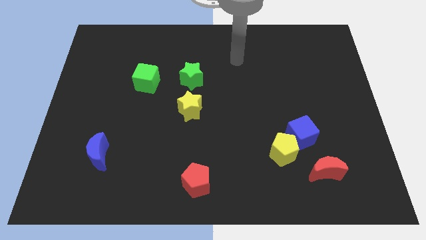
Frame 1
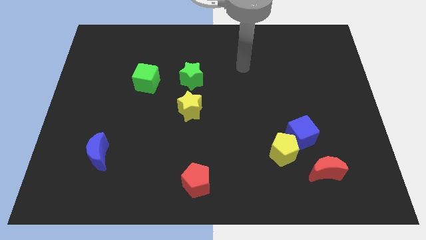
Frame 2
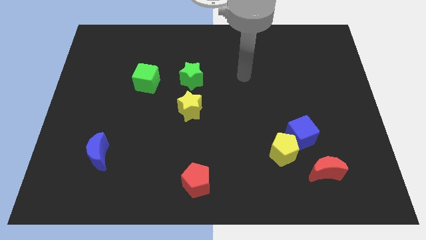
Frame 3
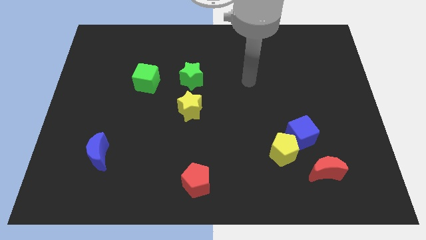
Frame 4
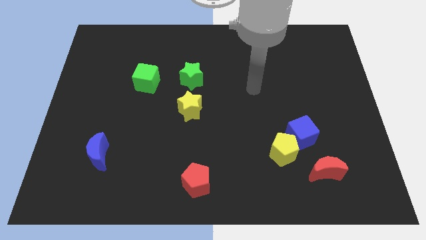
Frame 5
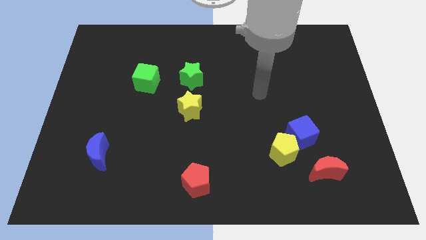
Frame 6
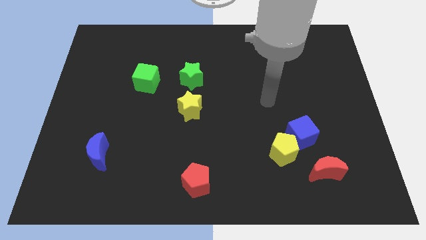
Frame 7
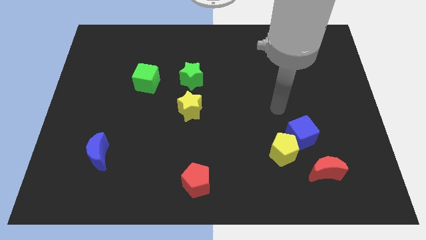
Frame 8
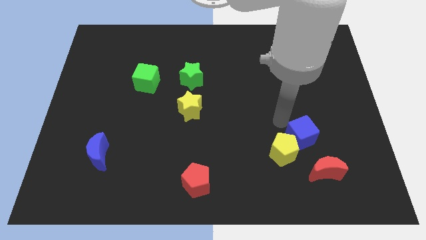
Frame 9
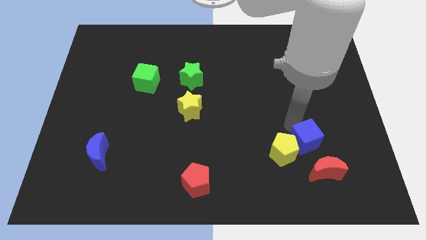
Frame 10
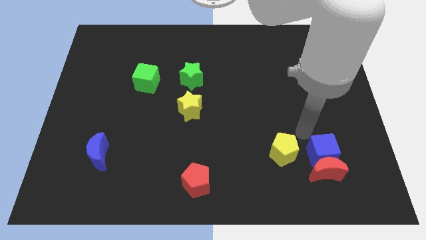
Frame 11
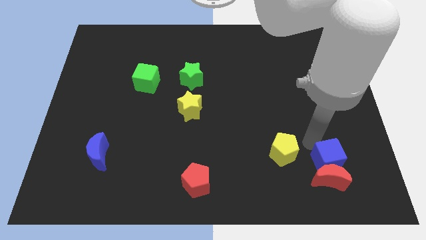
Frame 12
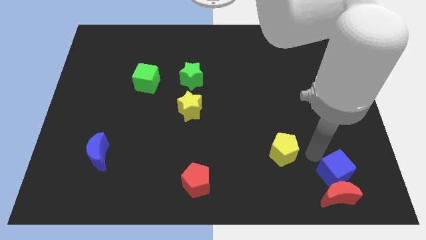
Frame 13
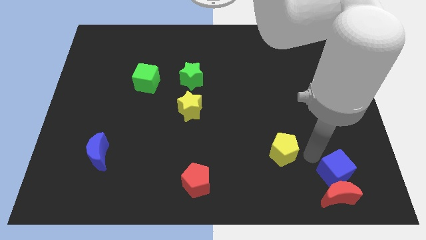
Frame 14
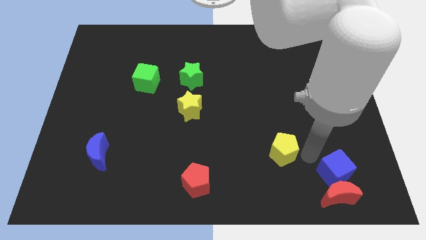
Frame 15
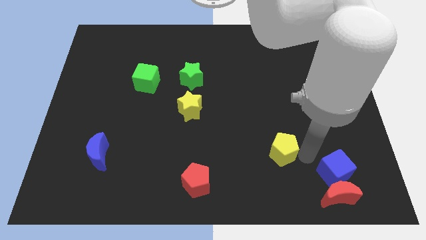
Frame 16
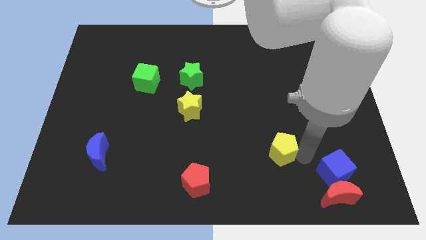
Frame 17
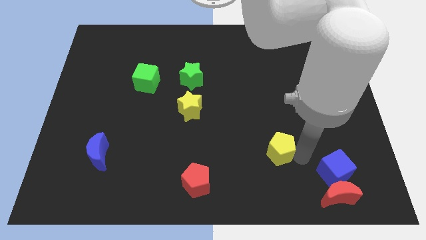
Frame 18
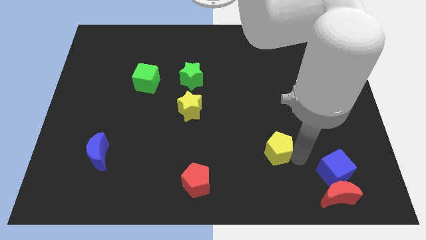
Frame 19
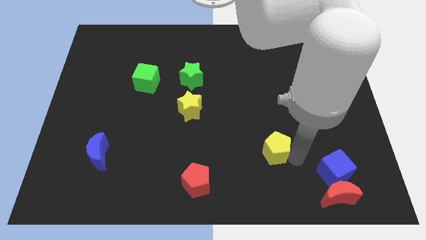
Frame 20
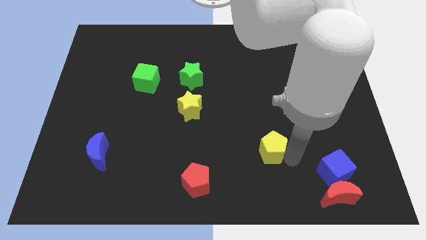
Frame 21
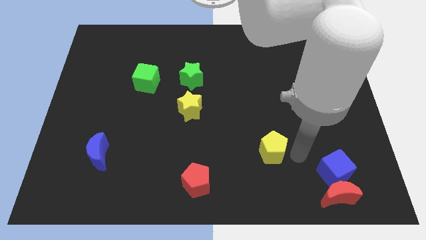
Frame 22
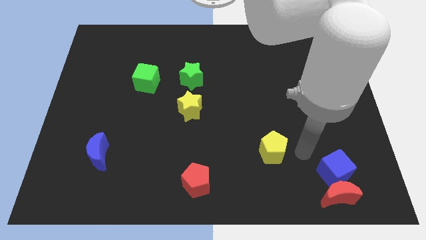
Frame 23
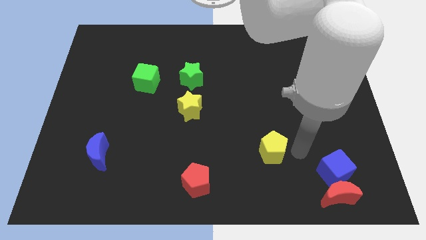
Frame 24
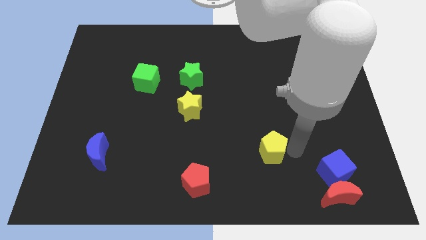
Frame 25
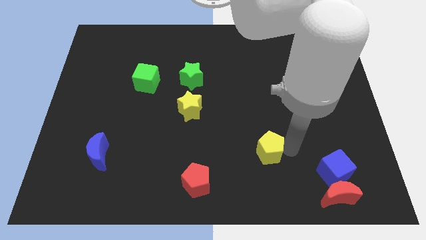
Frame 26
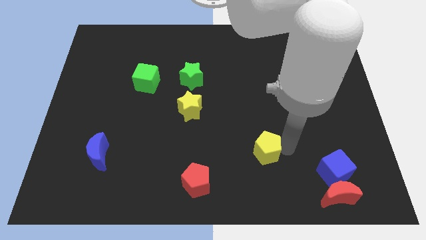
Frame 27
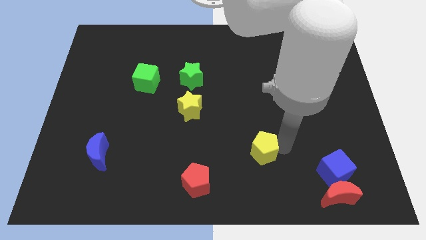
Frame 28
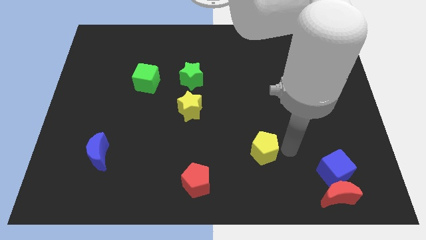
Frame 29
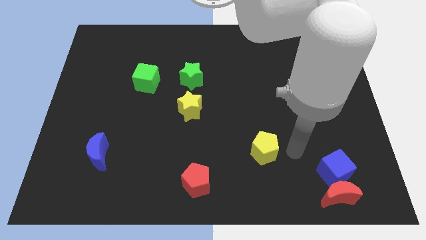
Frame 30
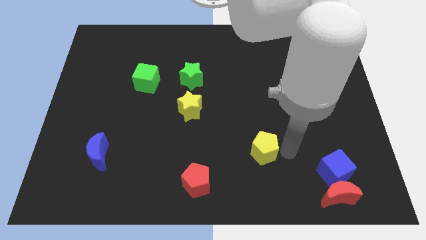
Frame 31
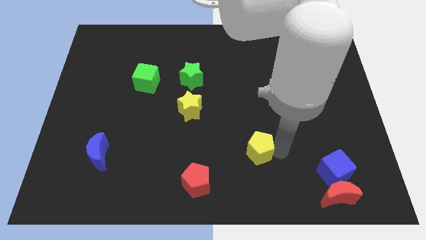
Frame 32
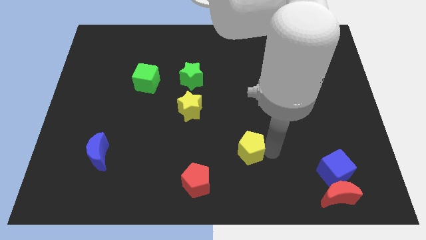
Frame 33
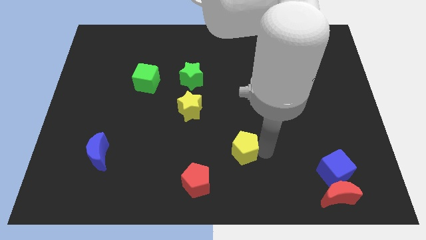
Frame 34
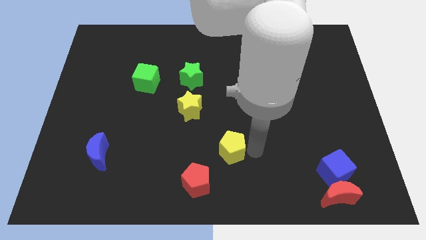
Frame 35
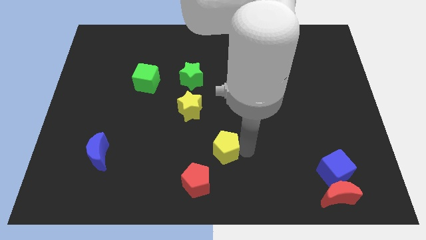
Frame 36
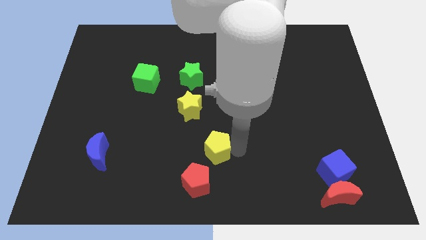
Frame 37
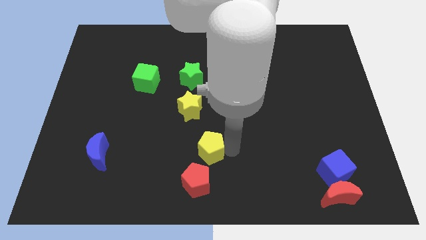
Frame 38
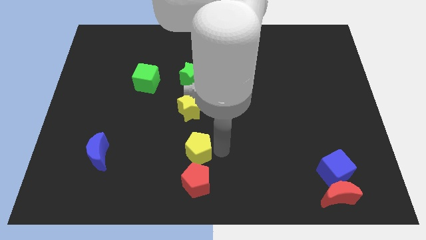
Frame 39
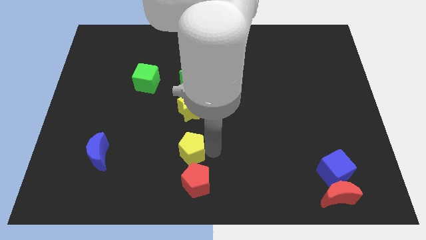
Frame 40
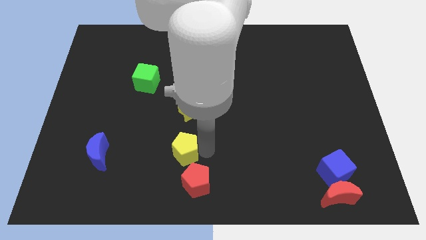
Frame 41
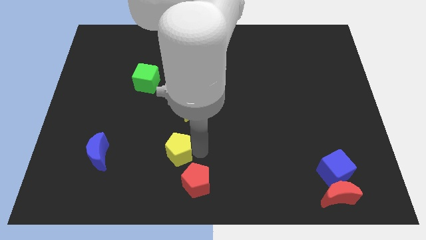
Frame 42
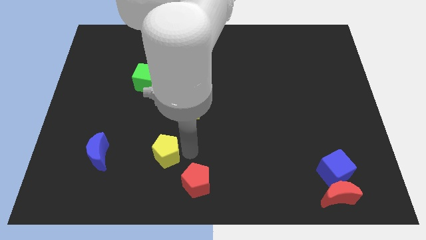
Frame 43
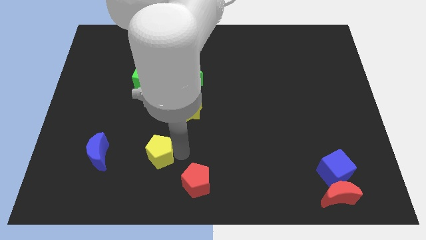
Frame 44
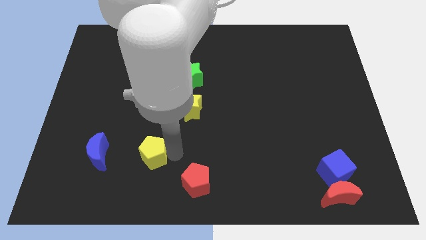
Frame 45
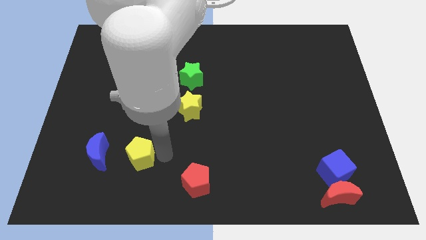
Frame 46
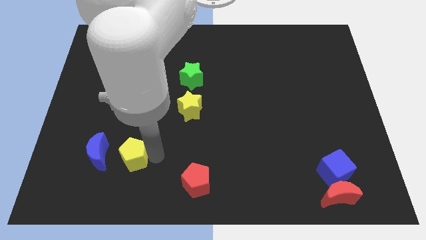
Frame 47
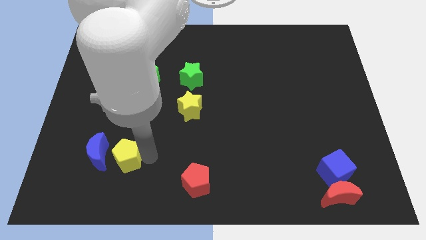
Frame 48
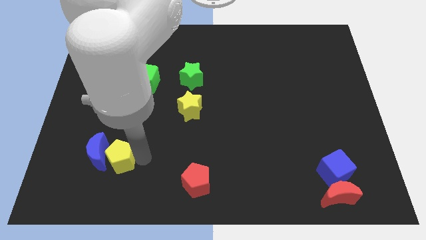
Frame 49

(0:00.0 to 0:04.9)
slide the yellow pentagon to the blue moon

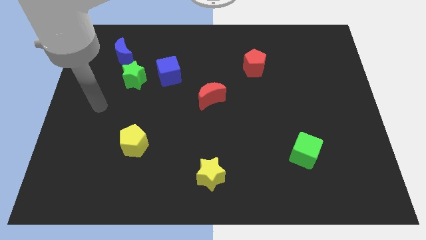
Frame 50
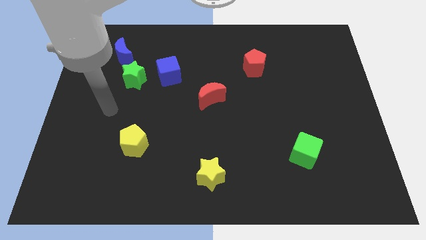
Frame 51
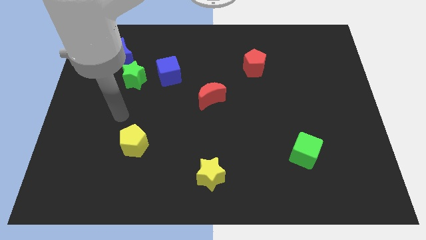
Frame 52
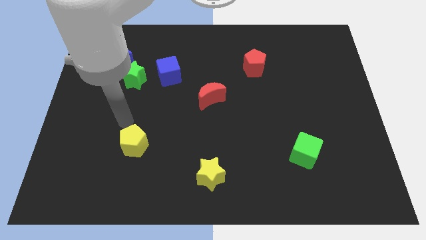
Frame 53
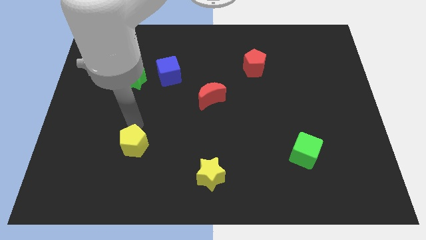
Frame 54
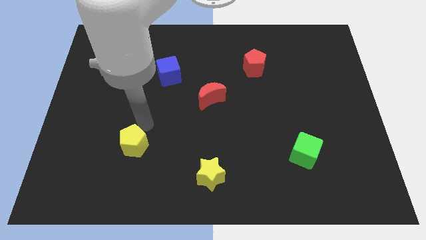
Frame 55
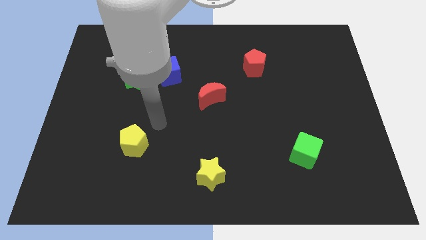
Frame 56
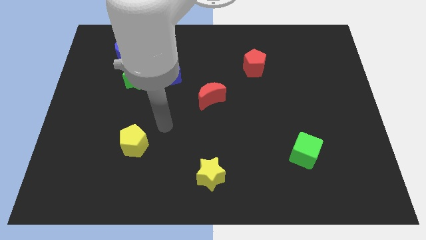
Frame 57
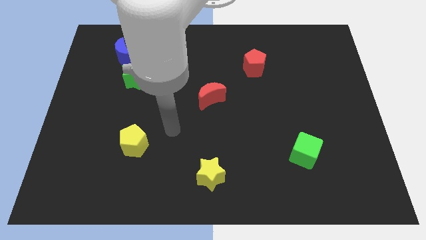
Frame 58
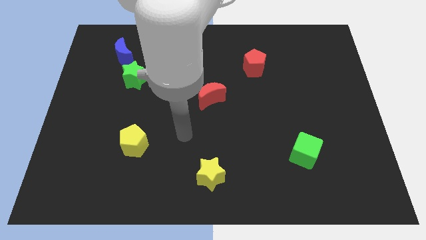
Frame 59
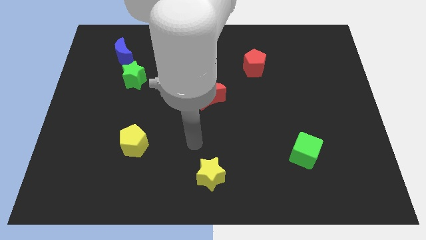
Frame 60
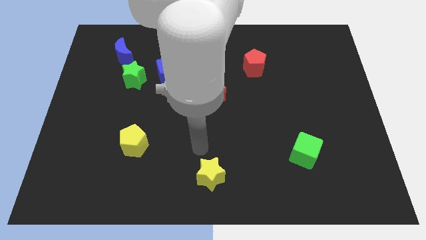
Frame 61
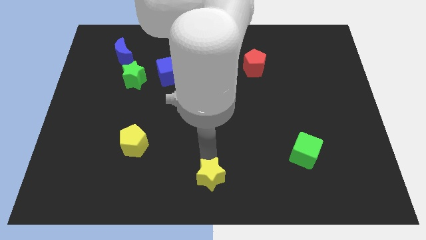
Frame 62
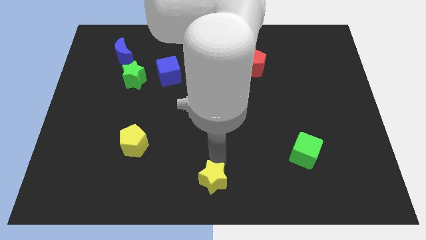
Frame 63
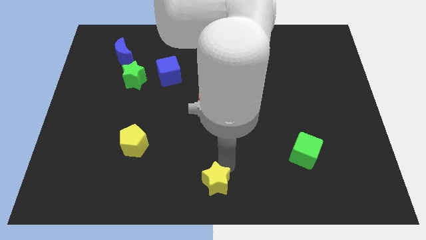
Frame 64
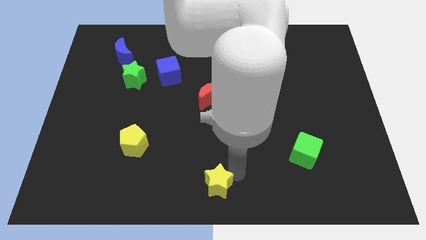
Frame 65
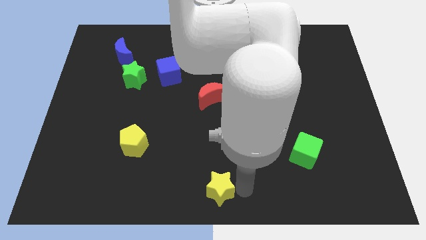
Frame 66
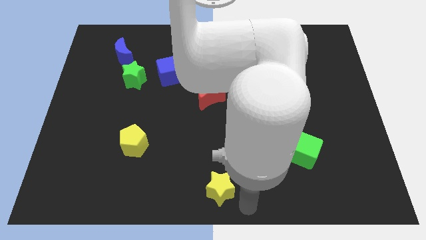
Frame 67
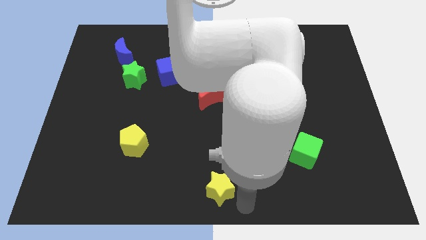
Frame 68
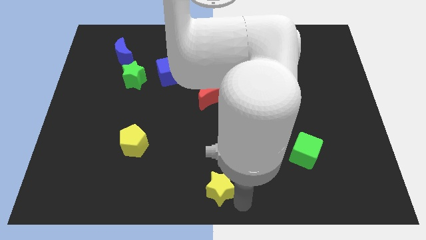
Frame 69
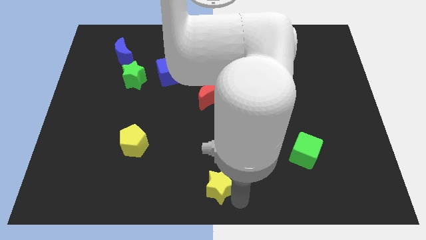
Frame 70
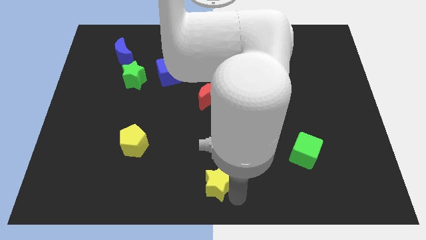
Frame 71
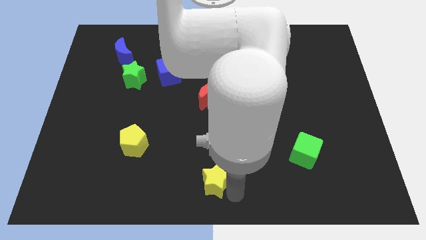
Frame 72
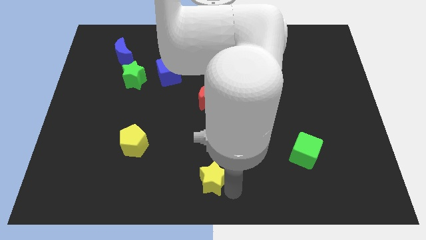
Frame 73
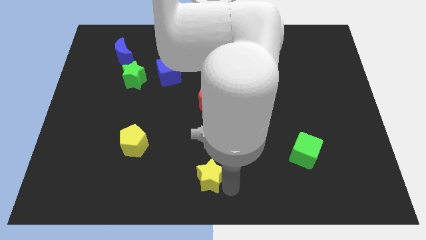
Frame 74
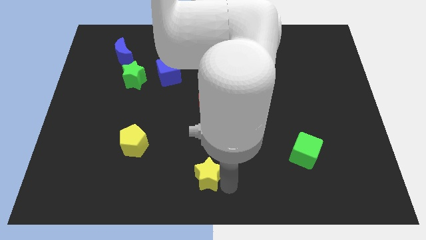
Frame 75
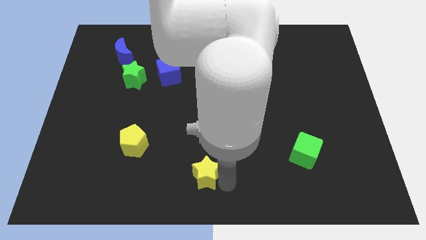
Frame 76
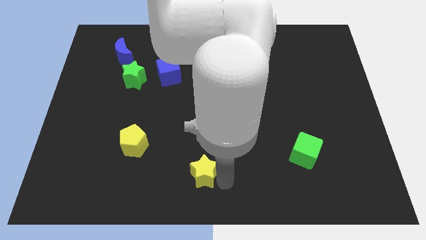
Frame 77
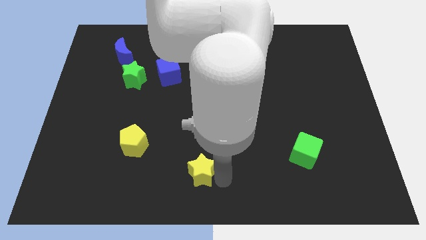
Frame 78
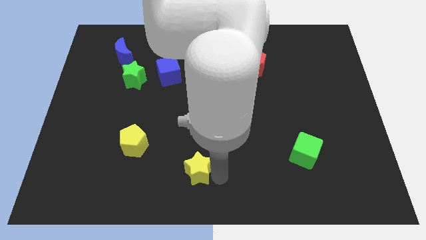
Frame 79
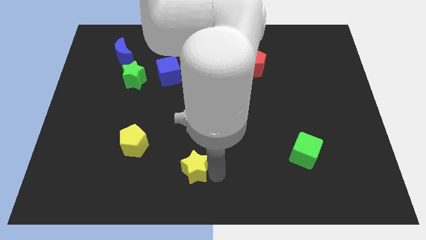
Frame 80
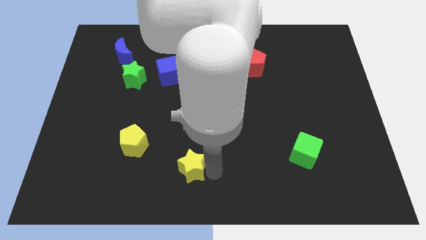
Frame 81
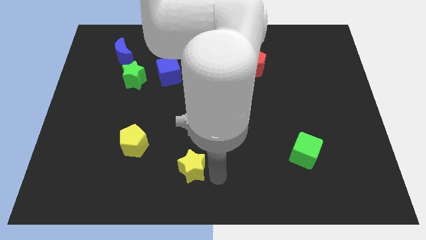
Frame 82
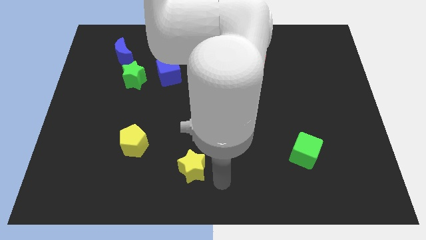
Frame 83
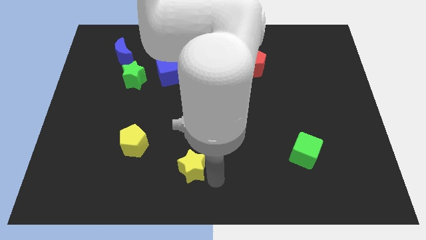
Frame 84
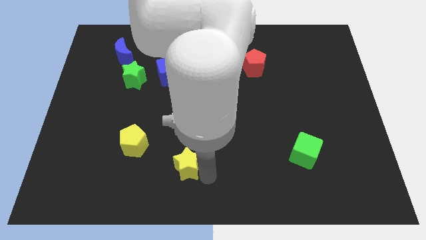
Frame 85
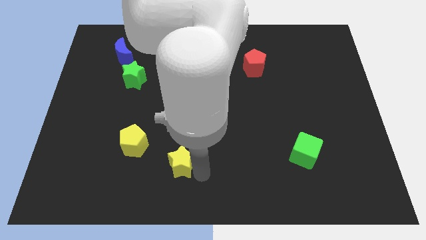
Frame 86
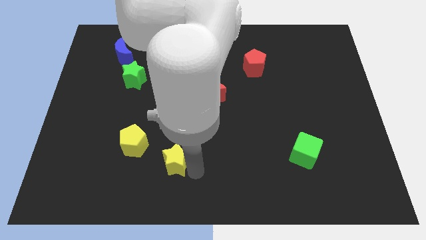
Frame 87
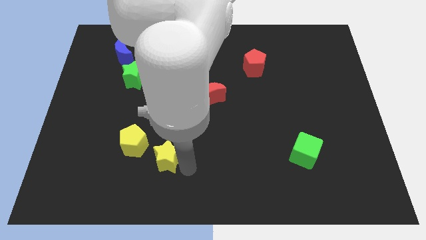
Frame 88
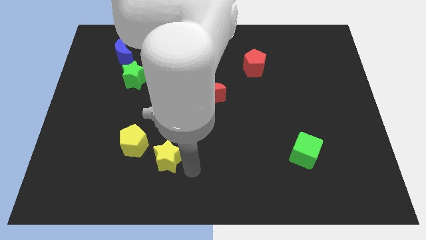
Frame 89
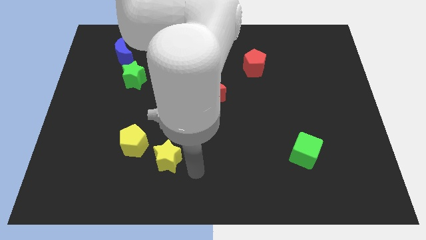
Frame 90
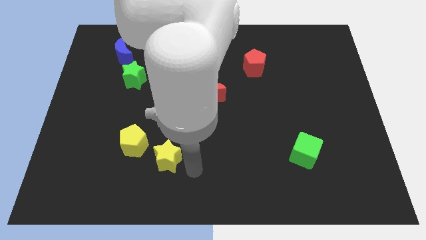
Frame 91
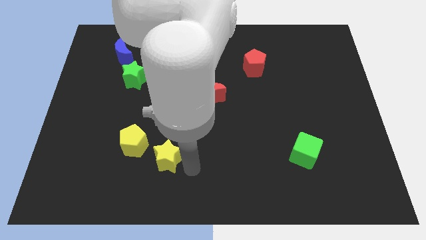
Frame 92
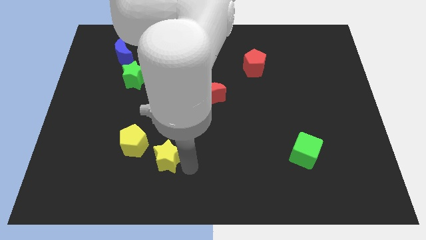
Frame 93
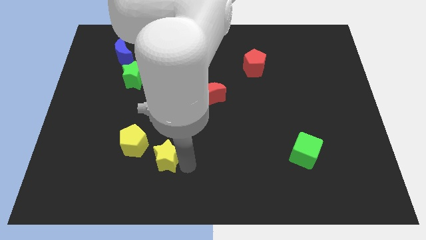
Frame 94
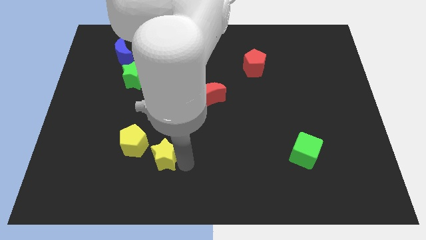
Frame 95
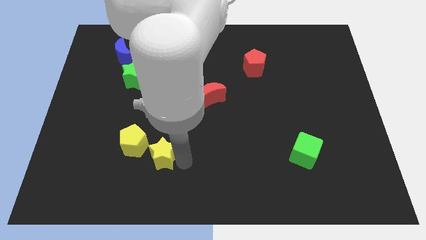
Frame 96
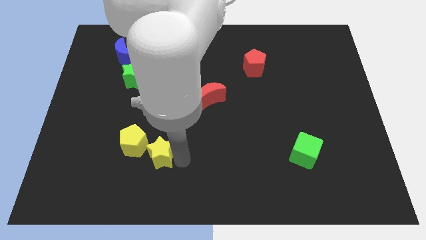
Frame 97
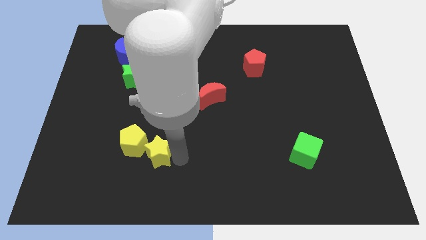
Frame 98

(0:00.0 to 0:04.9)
slide the yellow star close to the yellow pentagon
